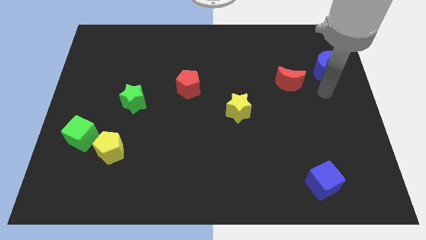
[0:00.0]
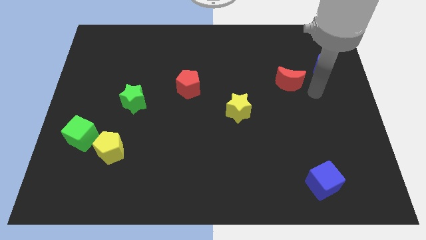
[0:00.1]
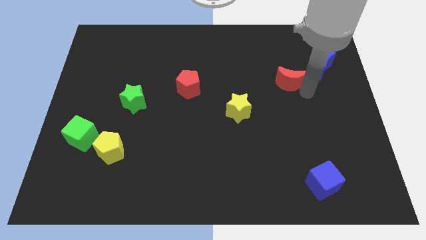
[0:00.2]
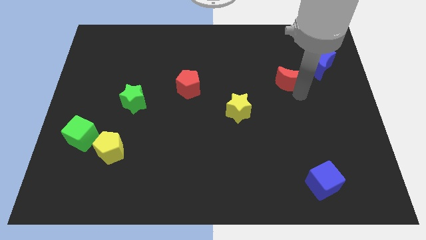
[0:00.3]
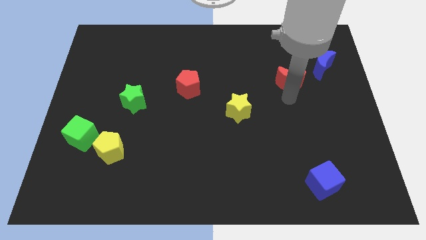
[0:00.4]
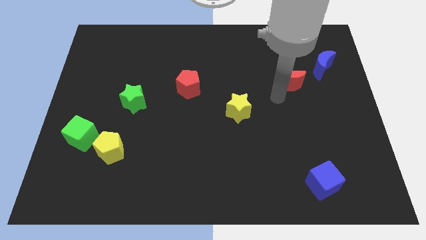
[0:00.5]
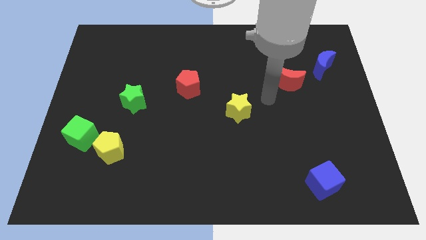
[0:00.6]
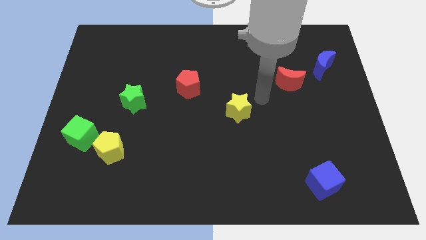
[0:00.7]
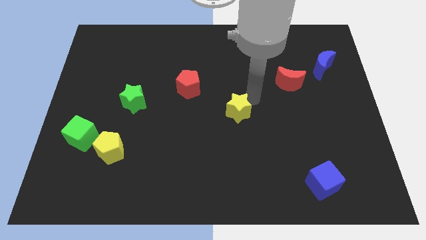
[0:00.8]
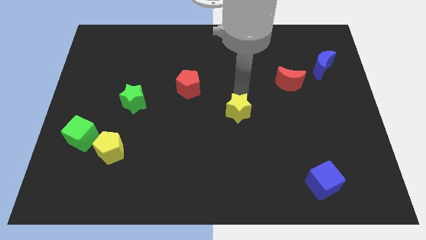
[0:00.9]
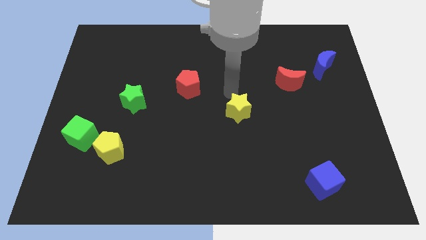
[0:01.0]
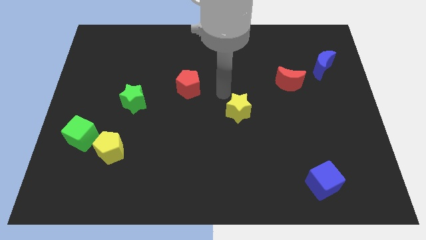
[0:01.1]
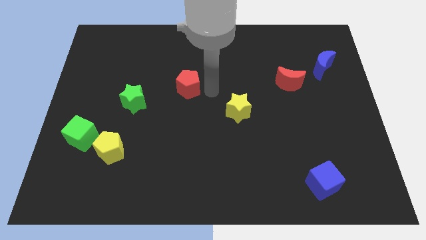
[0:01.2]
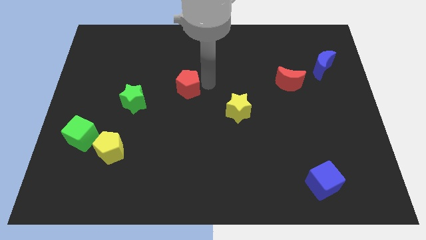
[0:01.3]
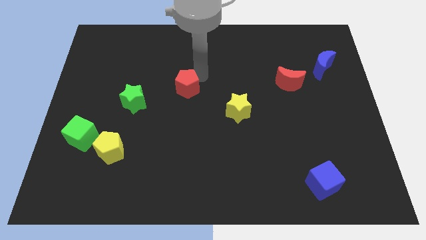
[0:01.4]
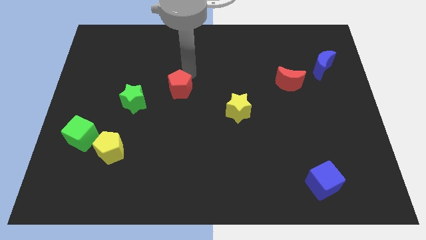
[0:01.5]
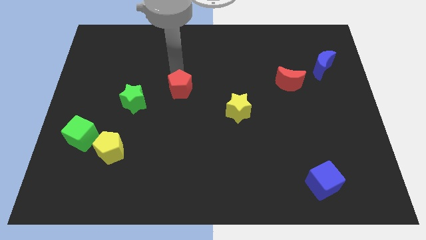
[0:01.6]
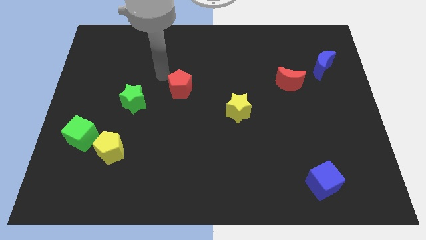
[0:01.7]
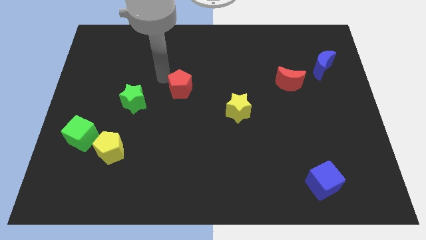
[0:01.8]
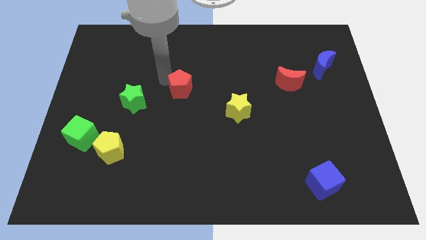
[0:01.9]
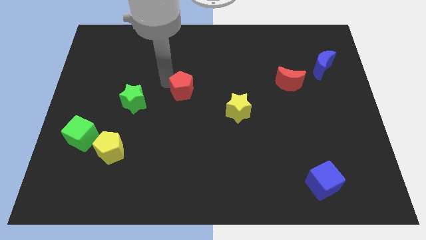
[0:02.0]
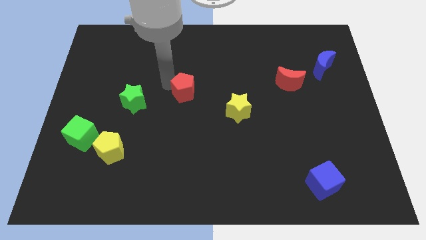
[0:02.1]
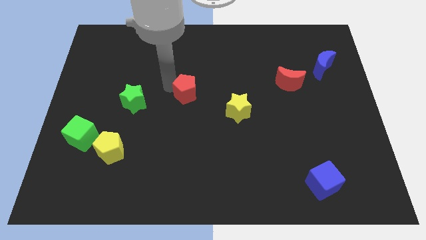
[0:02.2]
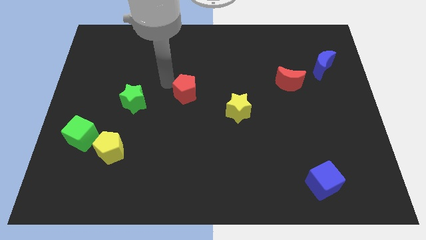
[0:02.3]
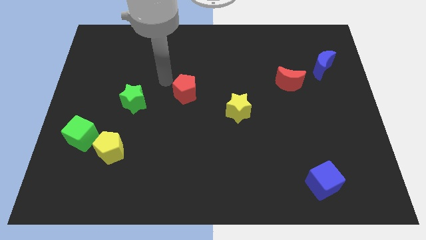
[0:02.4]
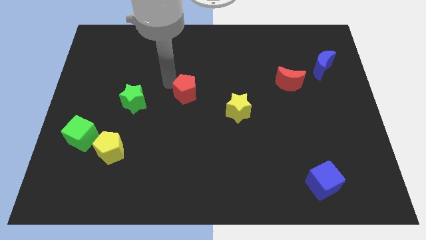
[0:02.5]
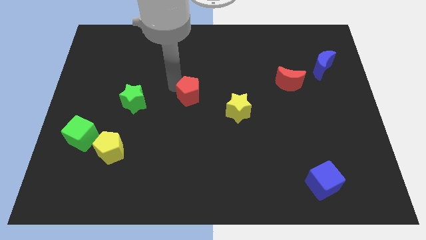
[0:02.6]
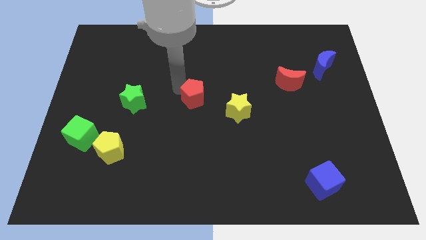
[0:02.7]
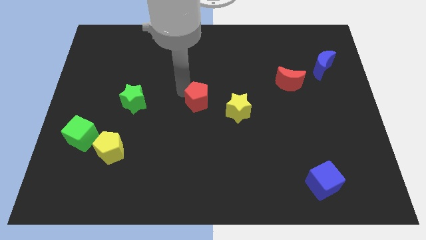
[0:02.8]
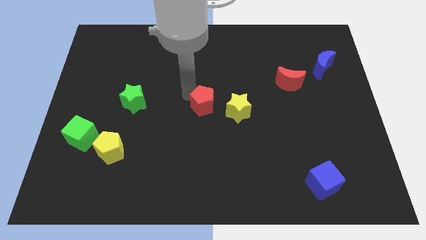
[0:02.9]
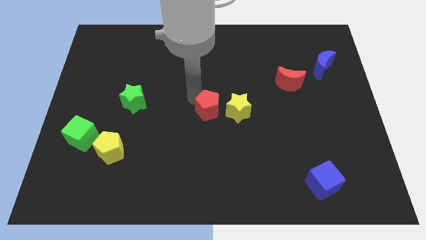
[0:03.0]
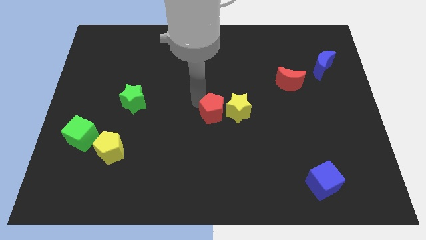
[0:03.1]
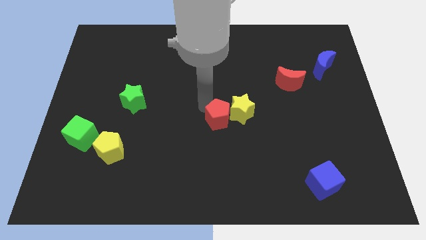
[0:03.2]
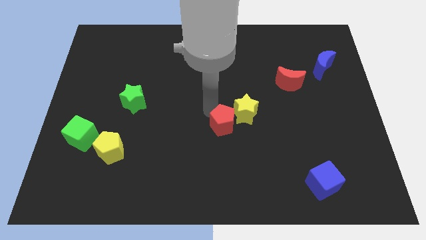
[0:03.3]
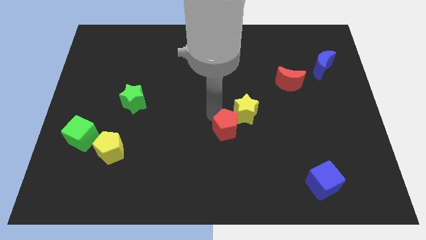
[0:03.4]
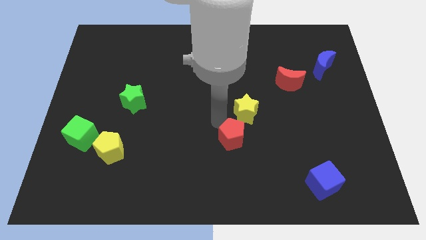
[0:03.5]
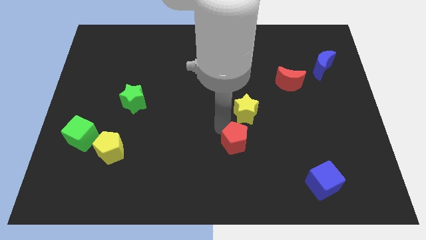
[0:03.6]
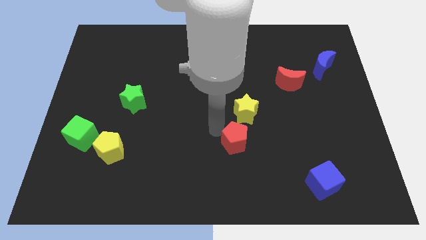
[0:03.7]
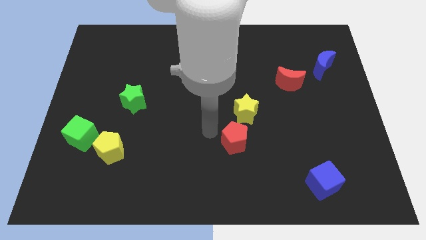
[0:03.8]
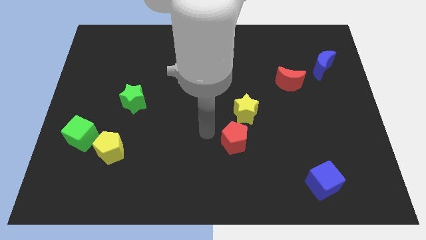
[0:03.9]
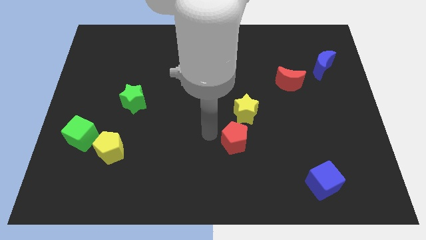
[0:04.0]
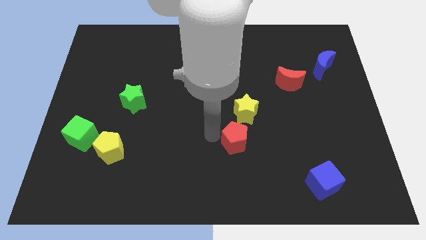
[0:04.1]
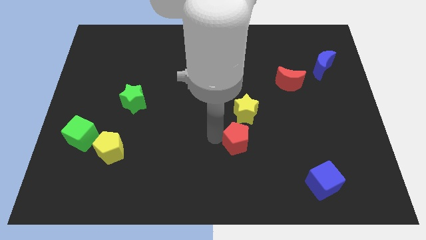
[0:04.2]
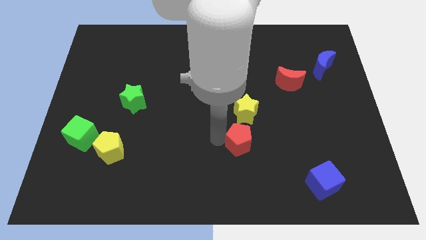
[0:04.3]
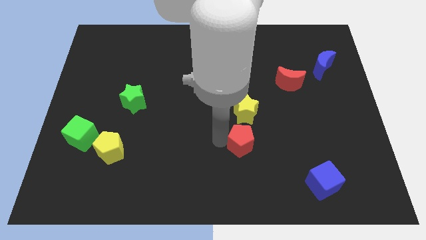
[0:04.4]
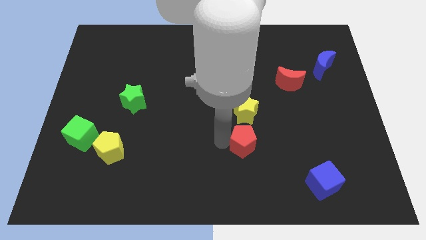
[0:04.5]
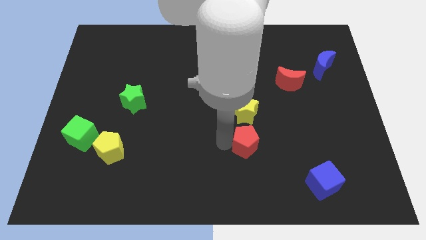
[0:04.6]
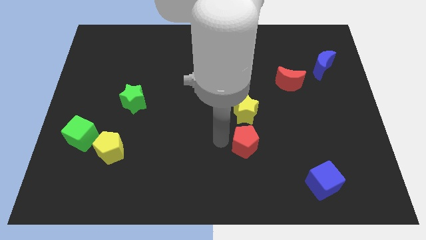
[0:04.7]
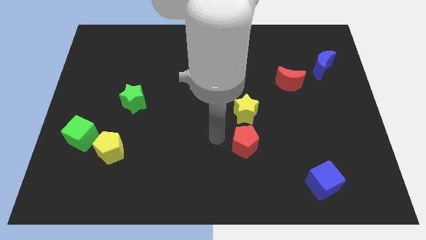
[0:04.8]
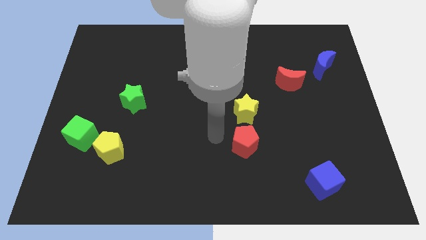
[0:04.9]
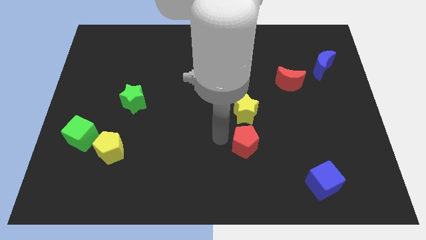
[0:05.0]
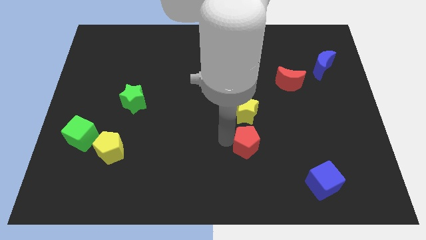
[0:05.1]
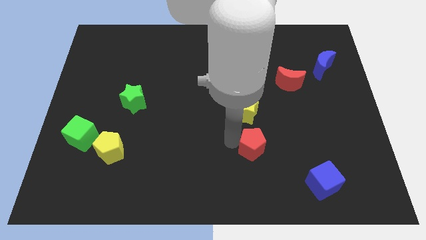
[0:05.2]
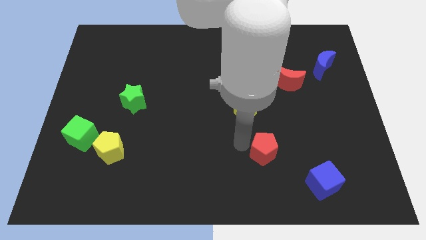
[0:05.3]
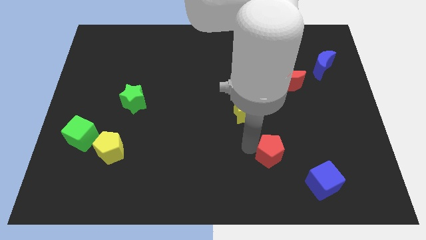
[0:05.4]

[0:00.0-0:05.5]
push the red pentagon diagonally up and to the left of the blue cube

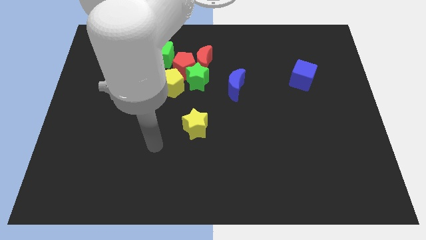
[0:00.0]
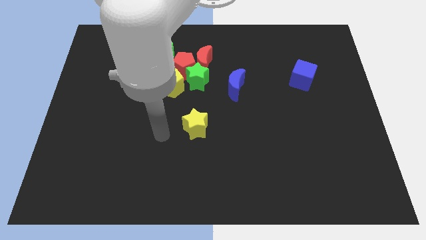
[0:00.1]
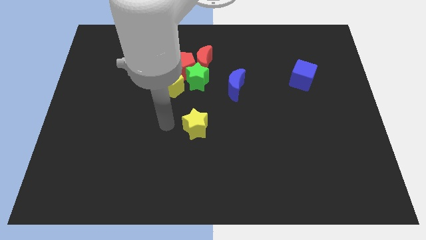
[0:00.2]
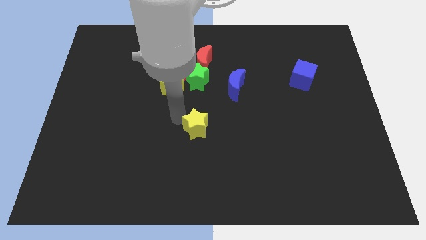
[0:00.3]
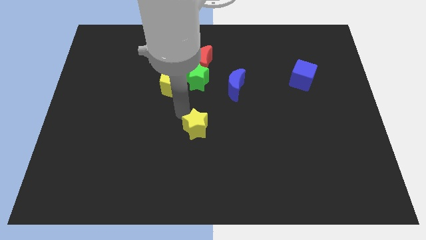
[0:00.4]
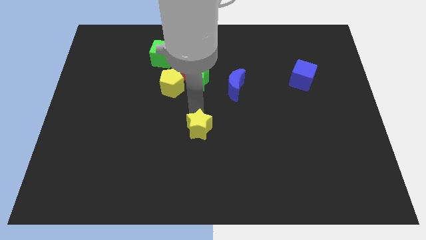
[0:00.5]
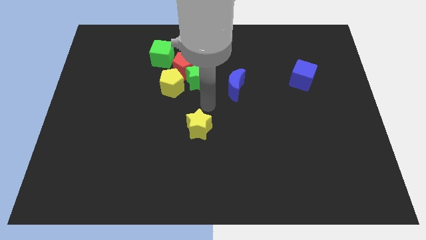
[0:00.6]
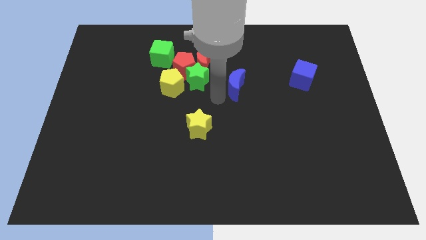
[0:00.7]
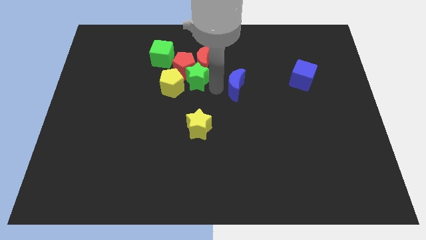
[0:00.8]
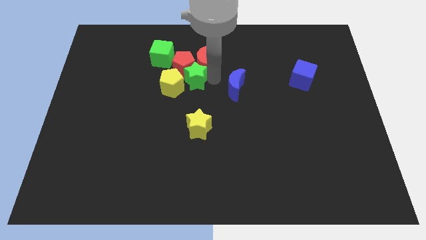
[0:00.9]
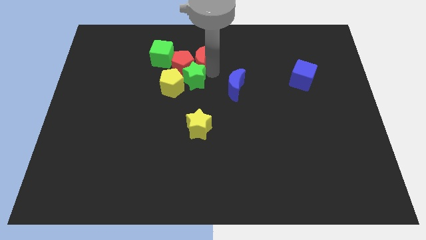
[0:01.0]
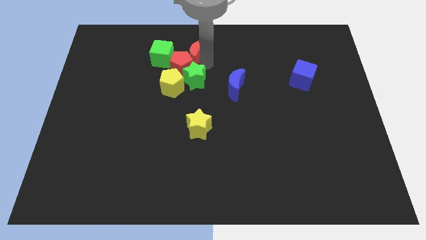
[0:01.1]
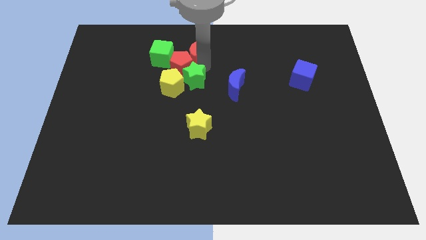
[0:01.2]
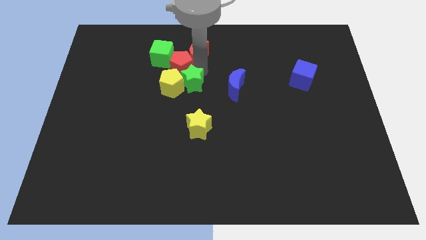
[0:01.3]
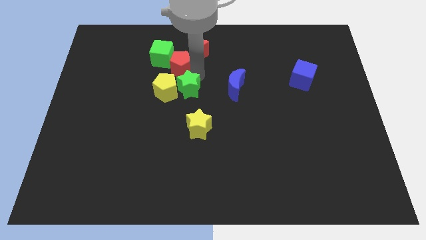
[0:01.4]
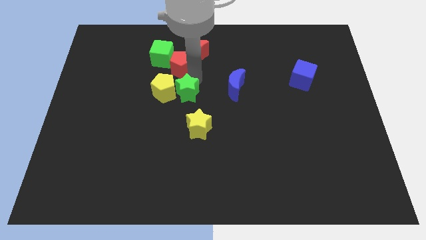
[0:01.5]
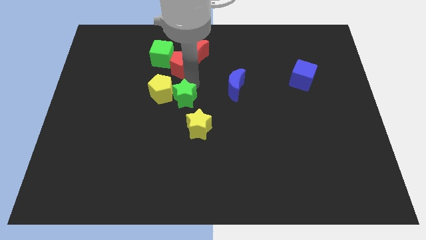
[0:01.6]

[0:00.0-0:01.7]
slide the green star to the top left side of the yellow star

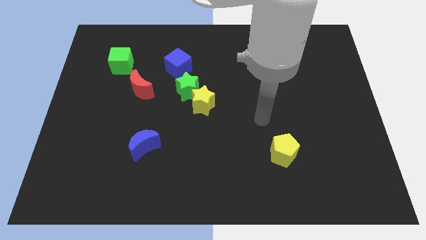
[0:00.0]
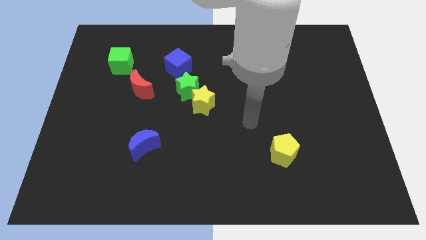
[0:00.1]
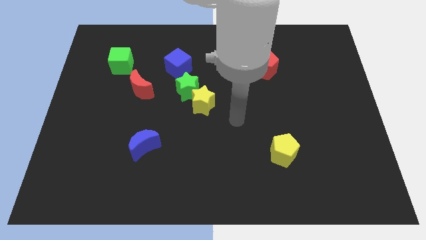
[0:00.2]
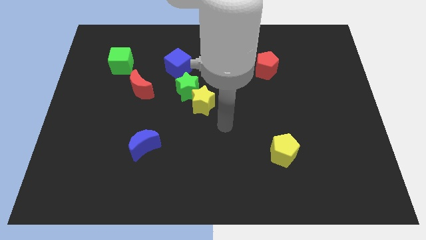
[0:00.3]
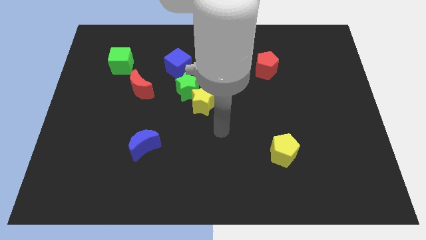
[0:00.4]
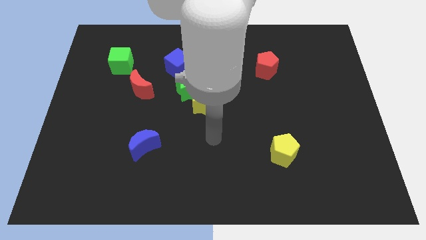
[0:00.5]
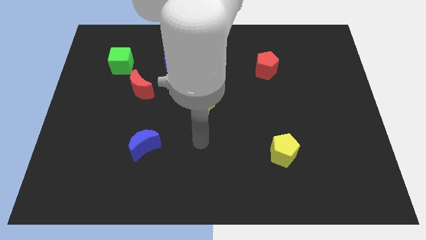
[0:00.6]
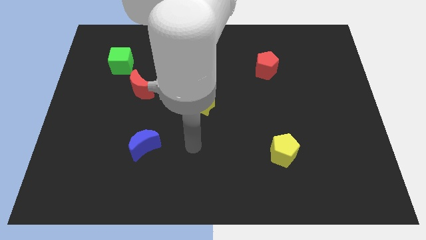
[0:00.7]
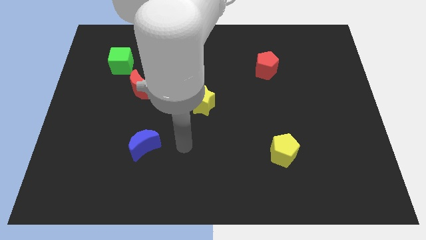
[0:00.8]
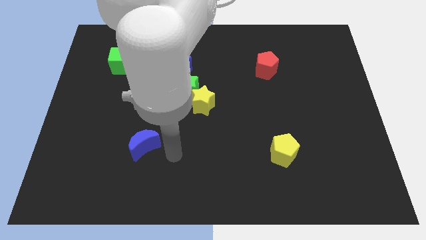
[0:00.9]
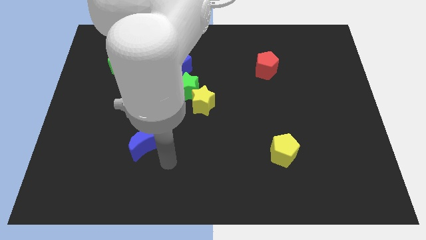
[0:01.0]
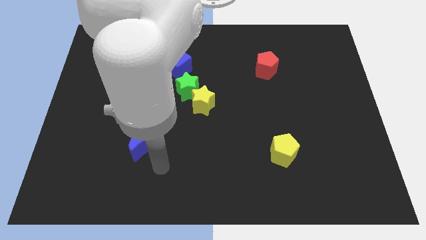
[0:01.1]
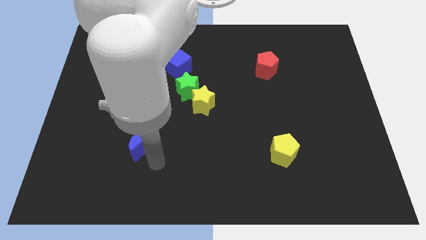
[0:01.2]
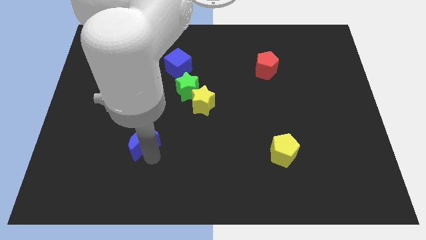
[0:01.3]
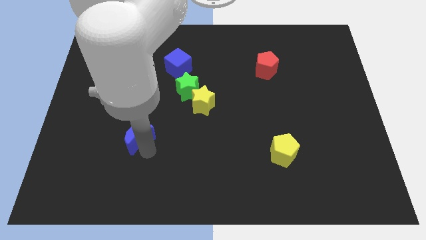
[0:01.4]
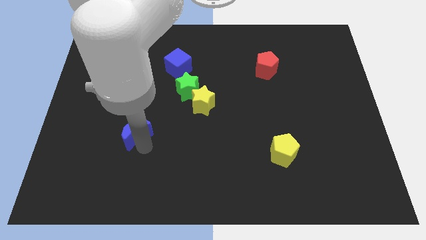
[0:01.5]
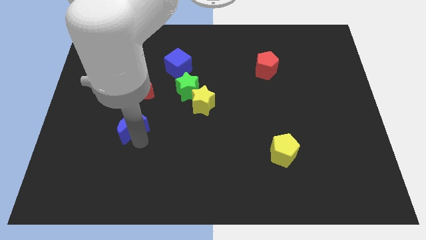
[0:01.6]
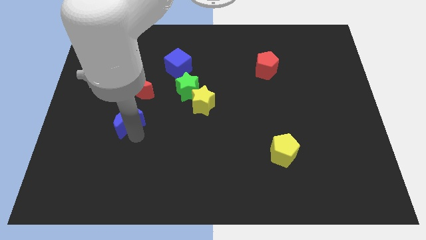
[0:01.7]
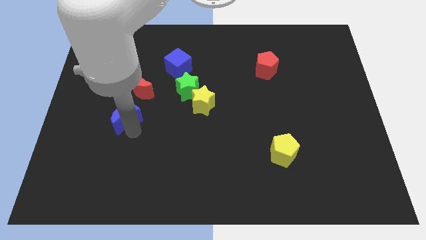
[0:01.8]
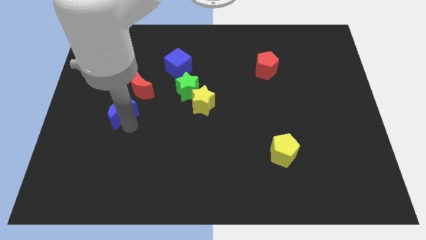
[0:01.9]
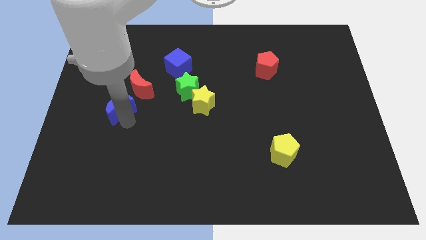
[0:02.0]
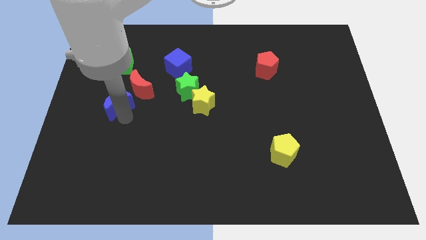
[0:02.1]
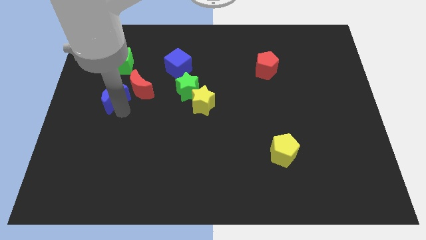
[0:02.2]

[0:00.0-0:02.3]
slide the blue moon left of the red moon
